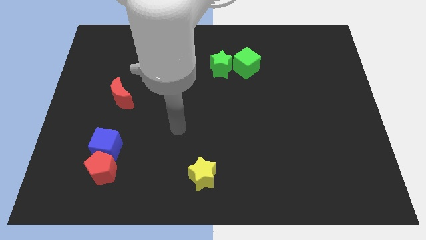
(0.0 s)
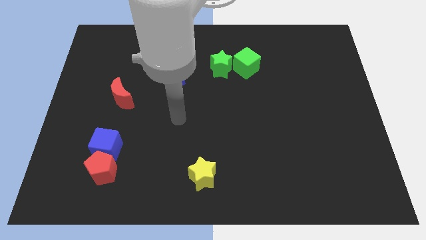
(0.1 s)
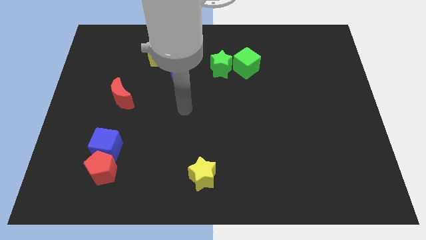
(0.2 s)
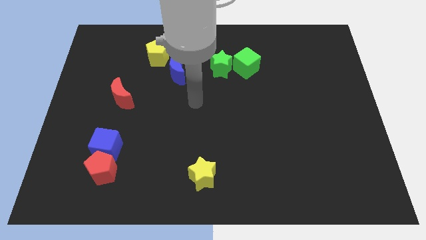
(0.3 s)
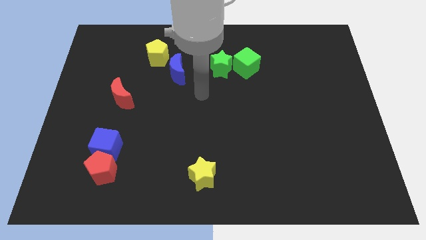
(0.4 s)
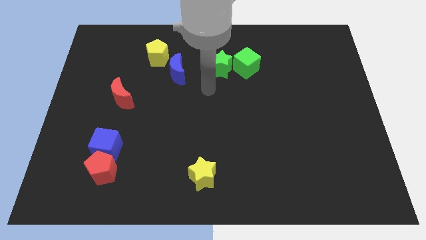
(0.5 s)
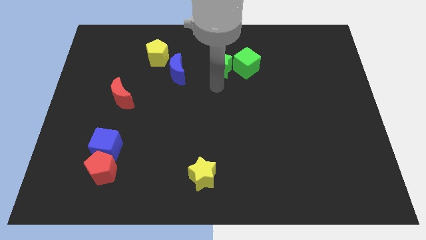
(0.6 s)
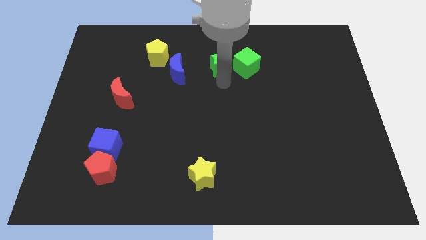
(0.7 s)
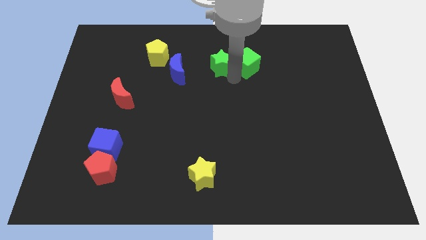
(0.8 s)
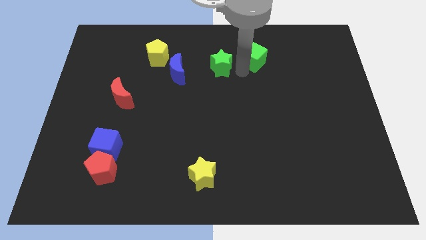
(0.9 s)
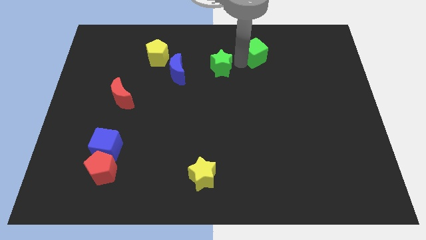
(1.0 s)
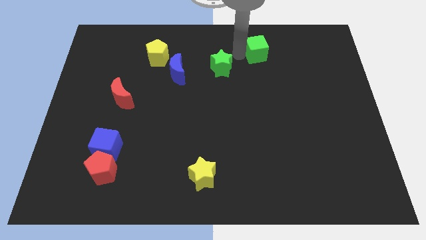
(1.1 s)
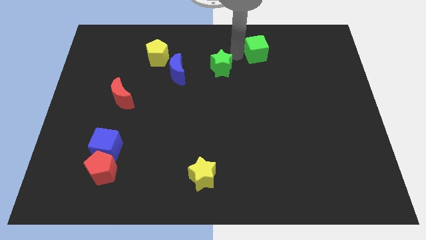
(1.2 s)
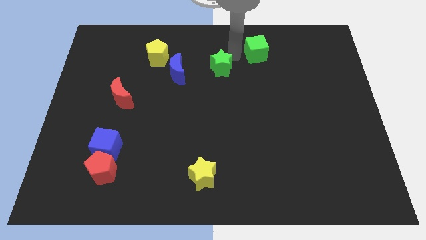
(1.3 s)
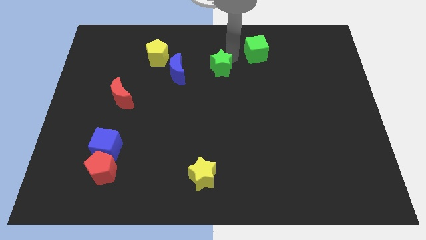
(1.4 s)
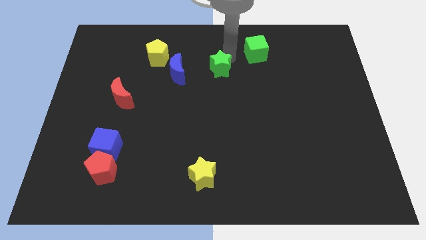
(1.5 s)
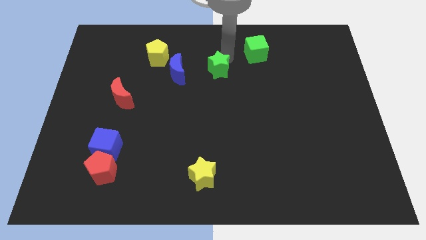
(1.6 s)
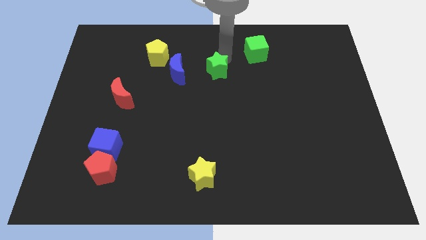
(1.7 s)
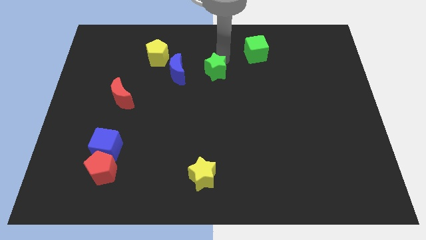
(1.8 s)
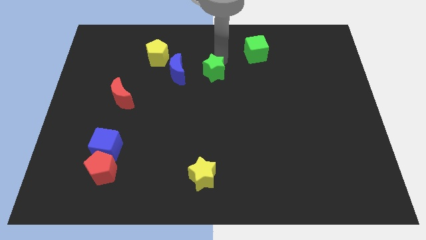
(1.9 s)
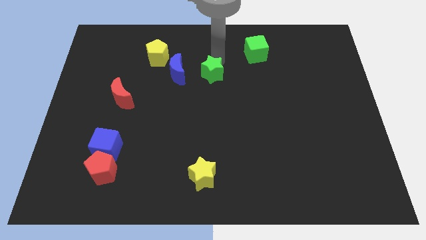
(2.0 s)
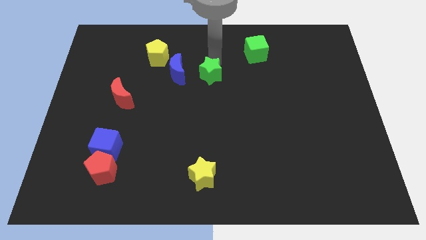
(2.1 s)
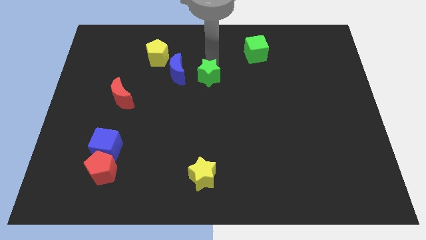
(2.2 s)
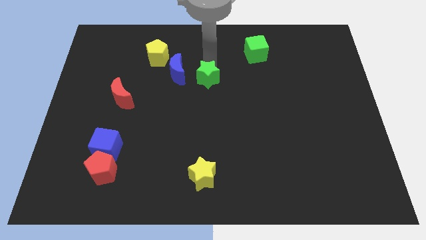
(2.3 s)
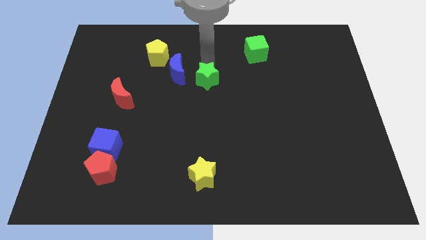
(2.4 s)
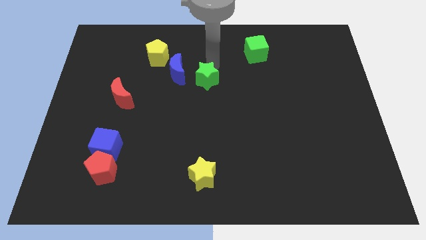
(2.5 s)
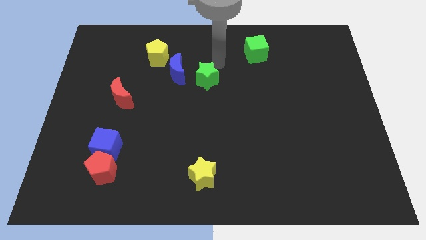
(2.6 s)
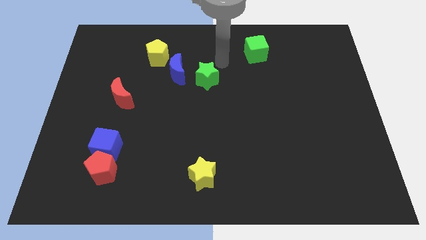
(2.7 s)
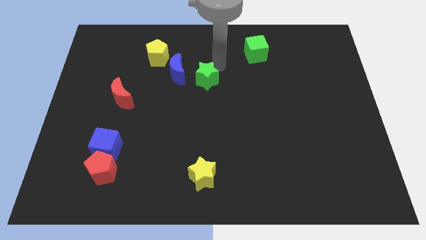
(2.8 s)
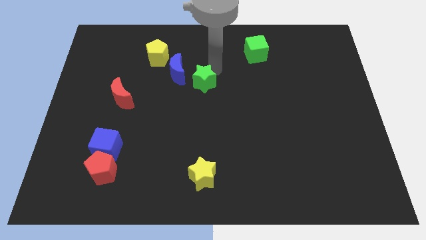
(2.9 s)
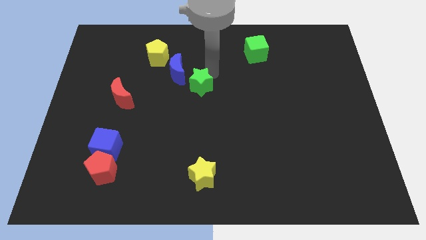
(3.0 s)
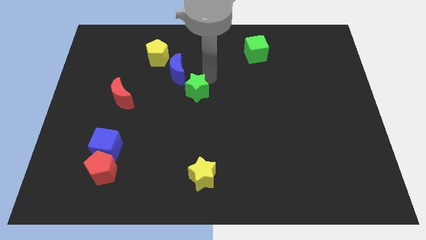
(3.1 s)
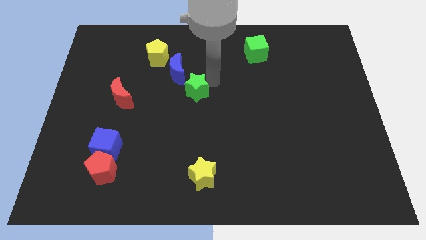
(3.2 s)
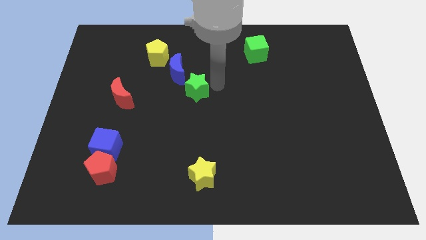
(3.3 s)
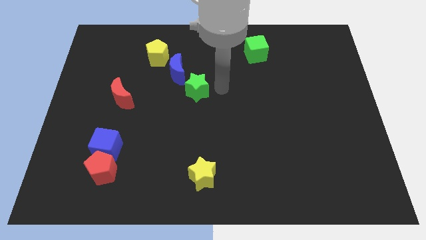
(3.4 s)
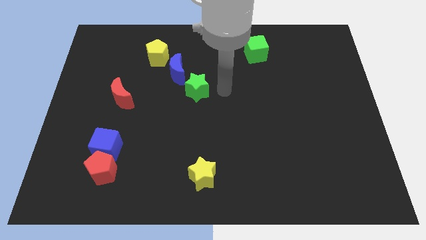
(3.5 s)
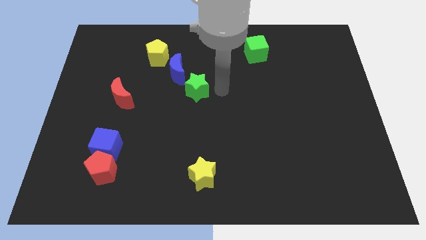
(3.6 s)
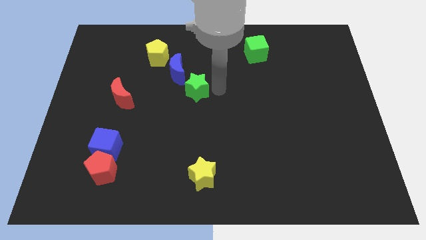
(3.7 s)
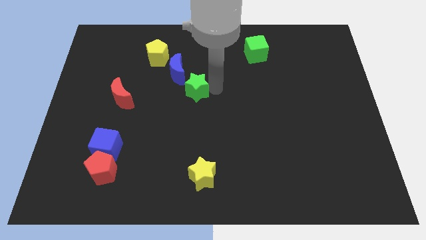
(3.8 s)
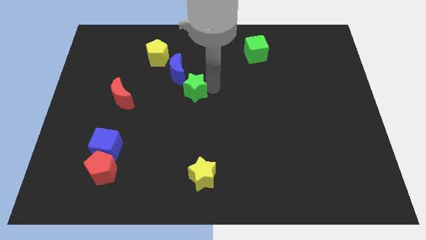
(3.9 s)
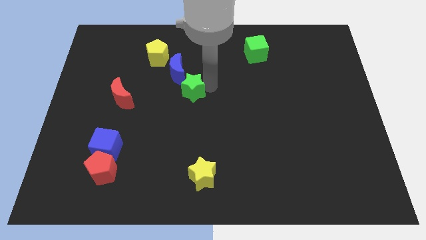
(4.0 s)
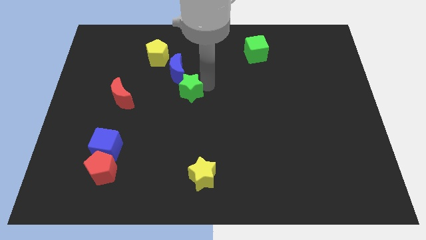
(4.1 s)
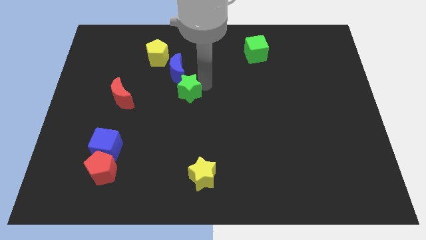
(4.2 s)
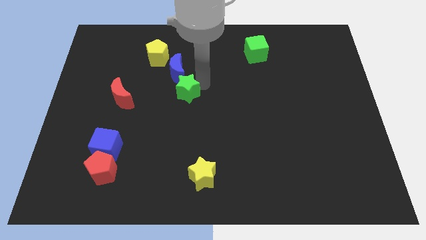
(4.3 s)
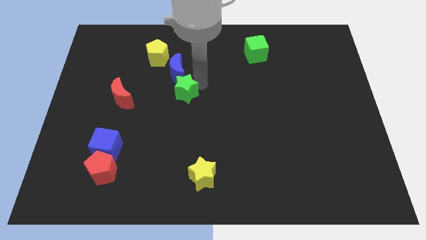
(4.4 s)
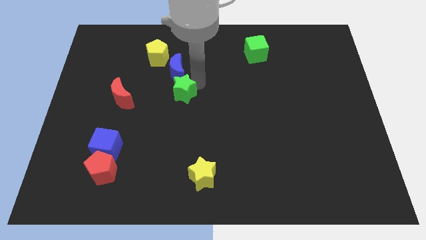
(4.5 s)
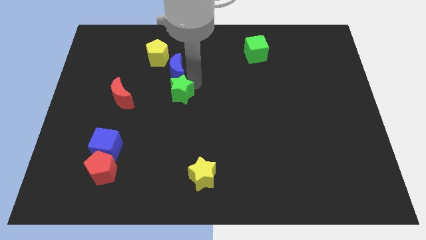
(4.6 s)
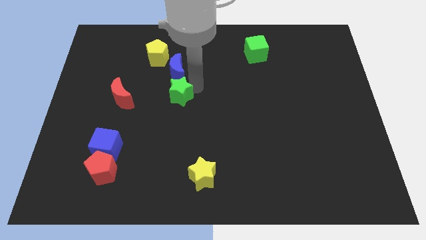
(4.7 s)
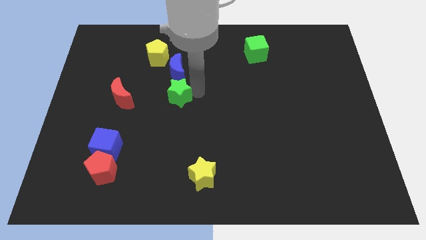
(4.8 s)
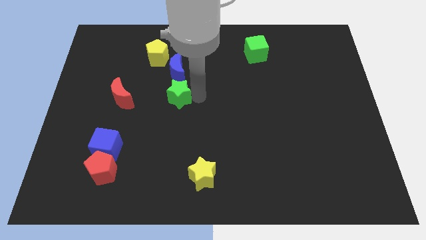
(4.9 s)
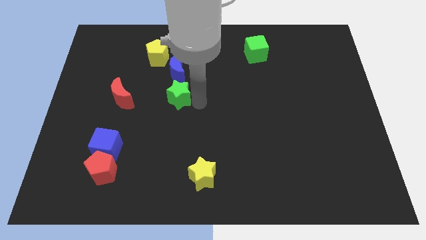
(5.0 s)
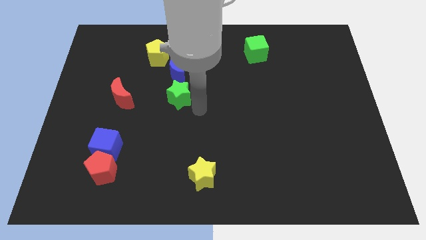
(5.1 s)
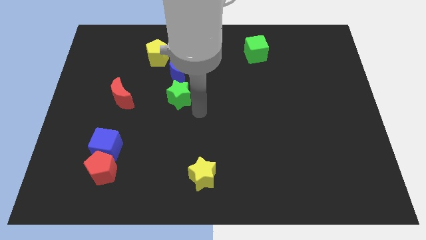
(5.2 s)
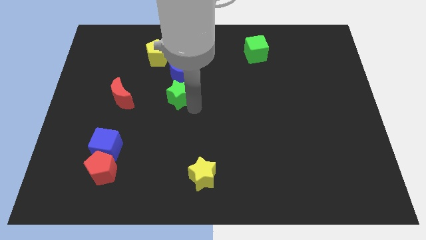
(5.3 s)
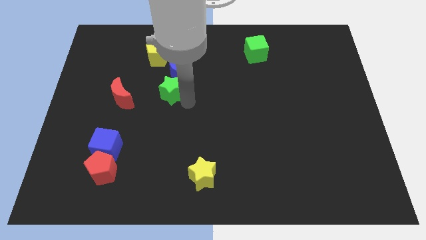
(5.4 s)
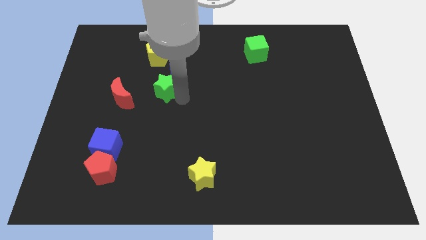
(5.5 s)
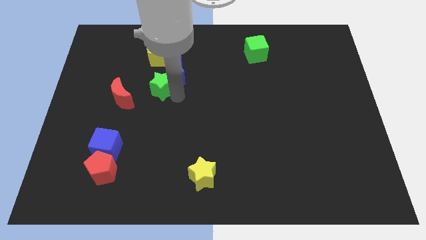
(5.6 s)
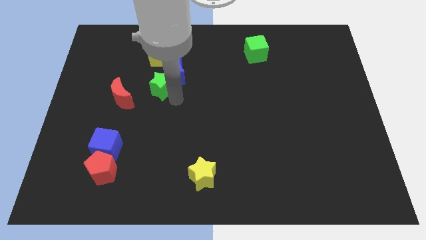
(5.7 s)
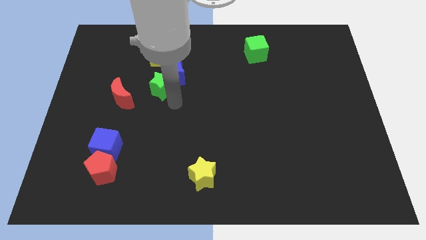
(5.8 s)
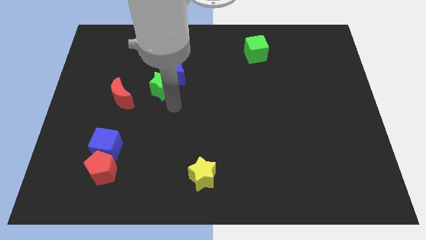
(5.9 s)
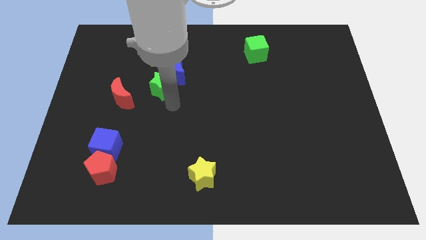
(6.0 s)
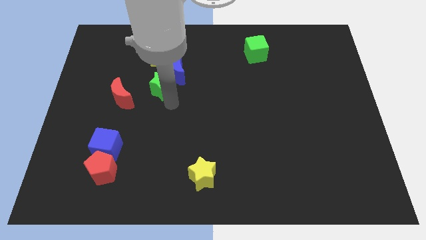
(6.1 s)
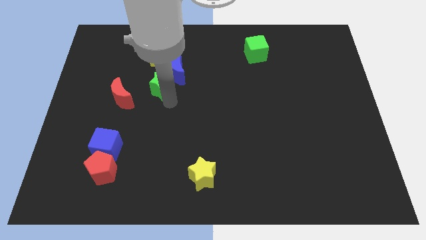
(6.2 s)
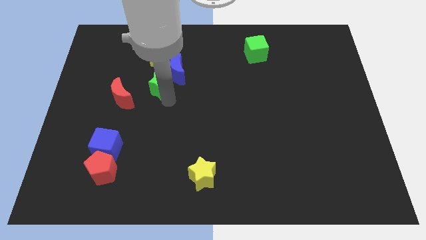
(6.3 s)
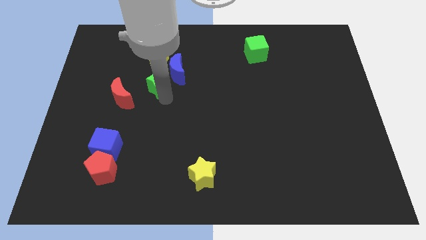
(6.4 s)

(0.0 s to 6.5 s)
move the green star left of the blue moon

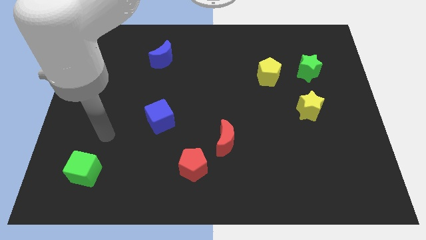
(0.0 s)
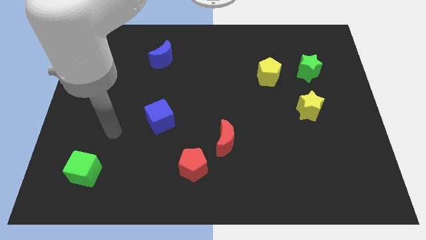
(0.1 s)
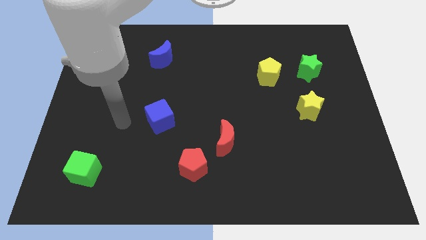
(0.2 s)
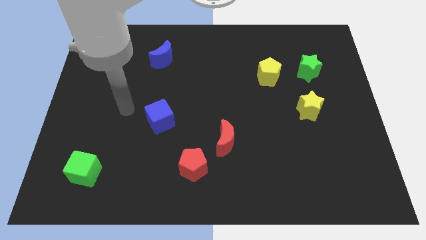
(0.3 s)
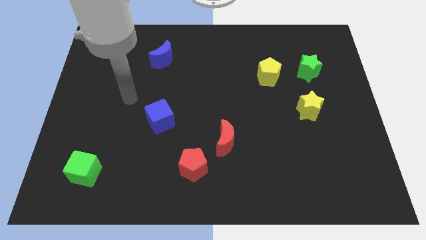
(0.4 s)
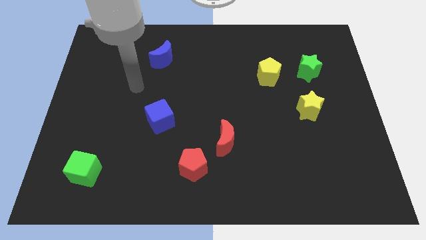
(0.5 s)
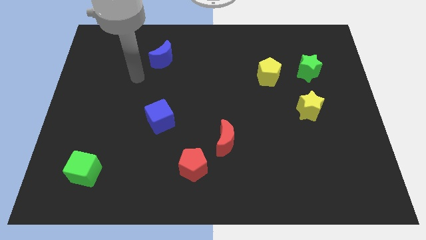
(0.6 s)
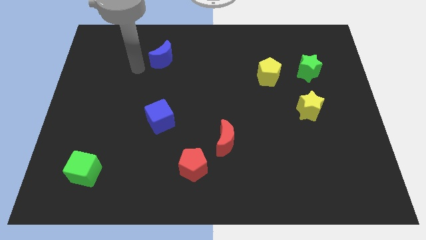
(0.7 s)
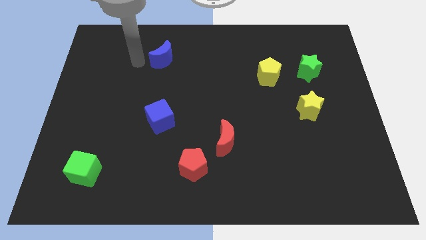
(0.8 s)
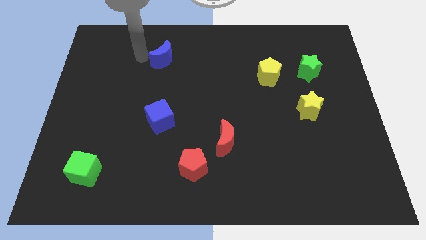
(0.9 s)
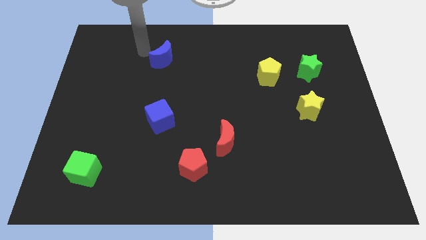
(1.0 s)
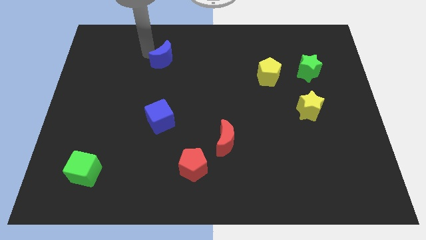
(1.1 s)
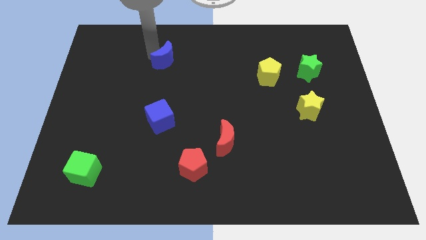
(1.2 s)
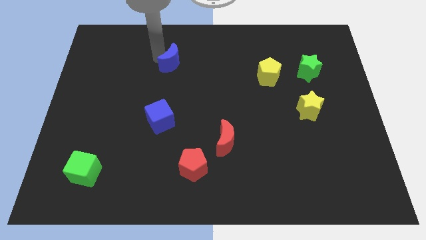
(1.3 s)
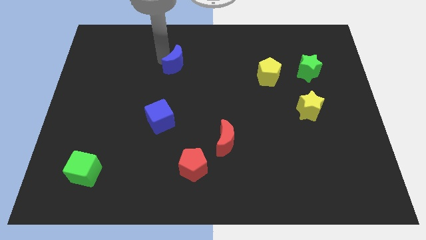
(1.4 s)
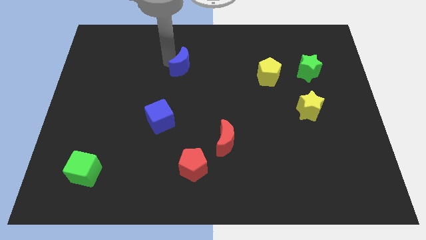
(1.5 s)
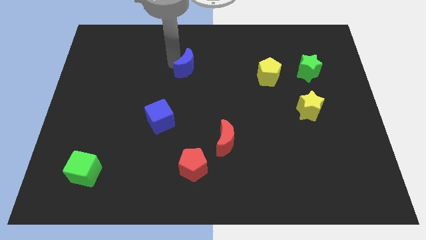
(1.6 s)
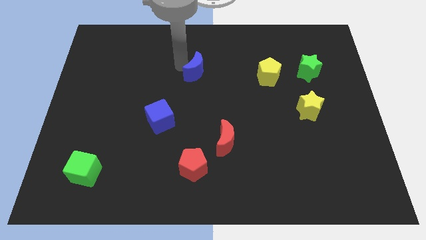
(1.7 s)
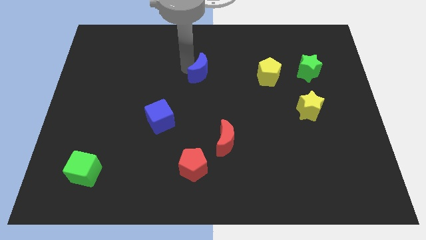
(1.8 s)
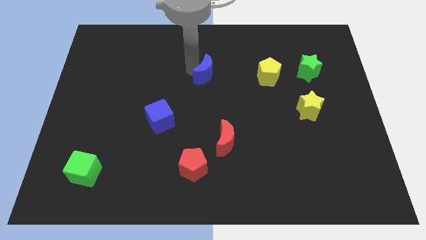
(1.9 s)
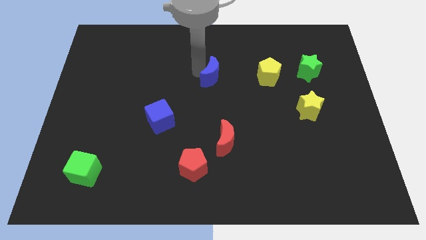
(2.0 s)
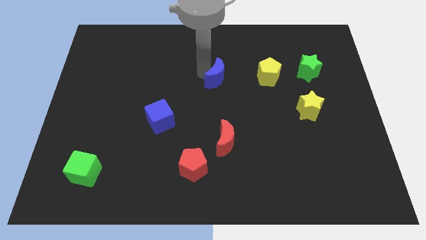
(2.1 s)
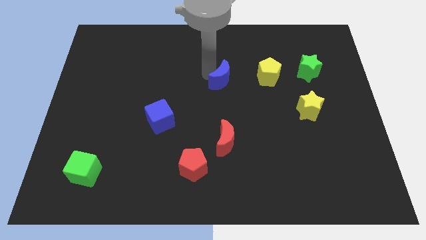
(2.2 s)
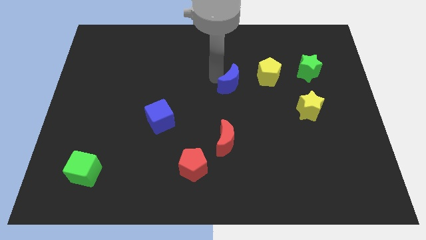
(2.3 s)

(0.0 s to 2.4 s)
move the blue moon to the bottom left side of the yellow pentagon
